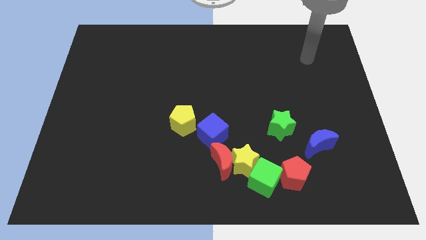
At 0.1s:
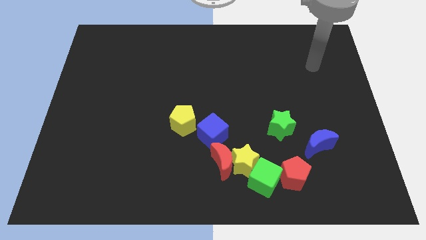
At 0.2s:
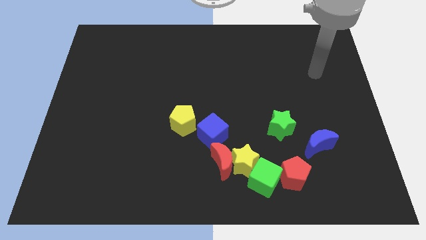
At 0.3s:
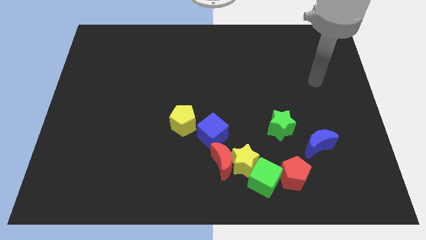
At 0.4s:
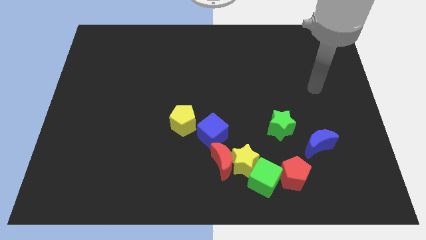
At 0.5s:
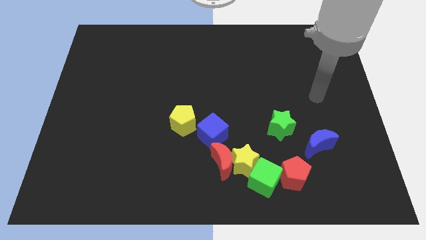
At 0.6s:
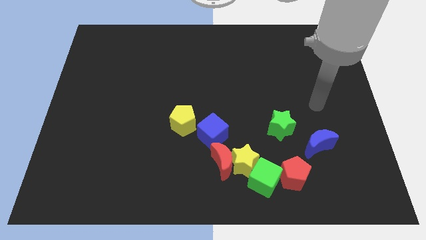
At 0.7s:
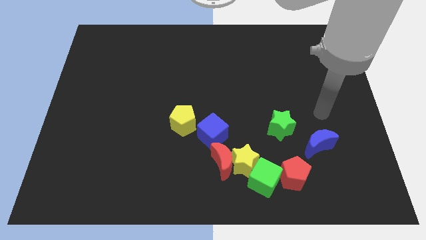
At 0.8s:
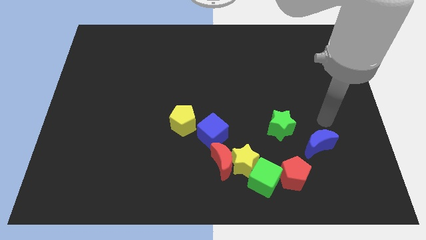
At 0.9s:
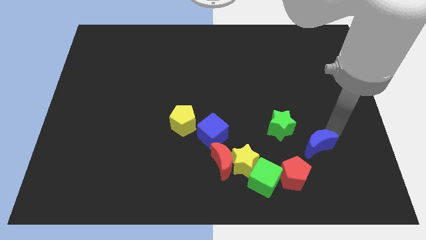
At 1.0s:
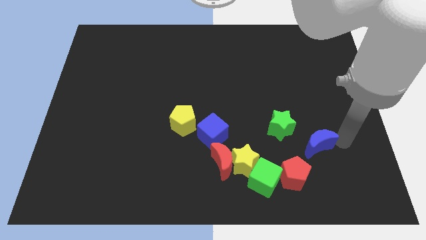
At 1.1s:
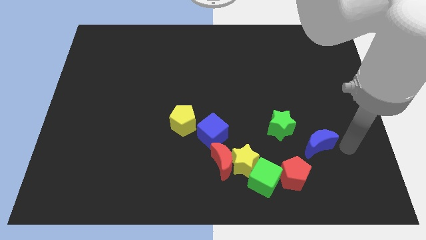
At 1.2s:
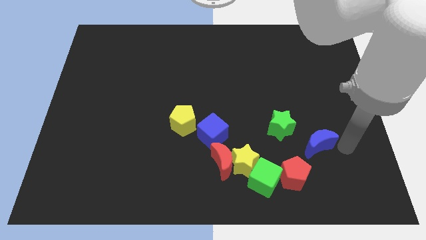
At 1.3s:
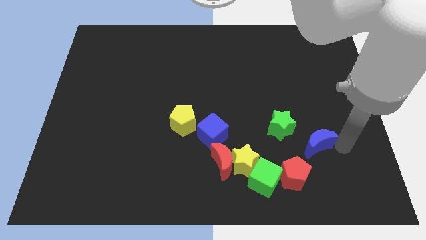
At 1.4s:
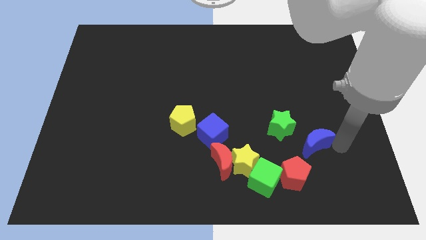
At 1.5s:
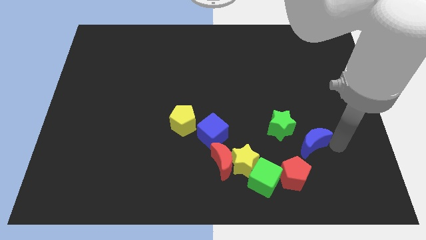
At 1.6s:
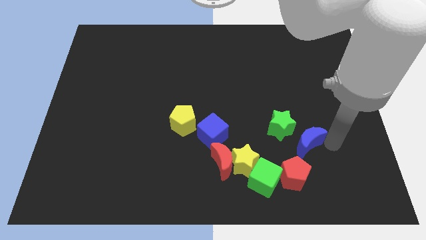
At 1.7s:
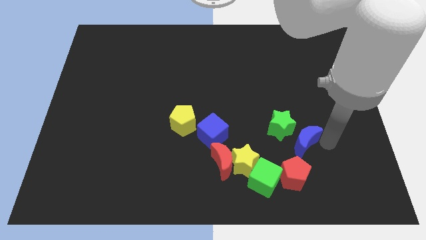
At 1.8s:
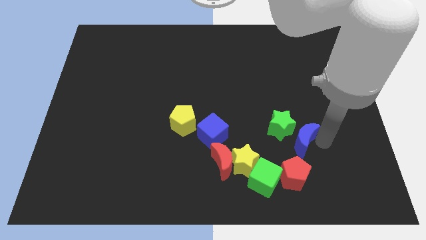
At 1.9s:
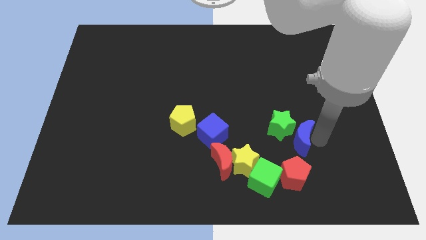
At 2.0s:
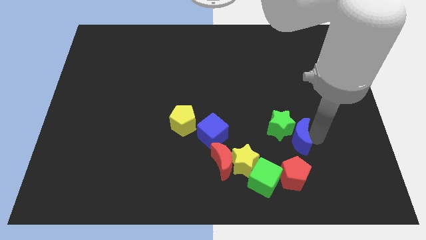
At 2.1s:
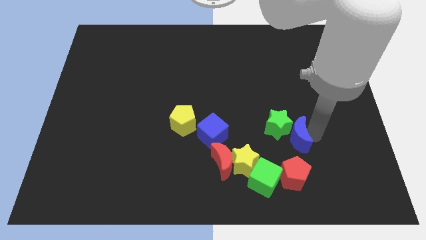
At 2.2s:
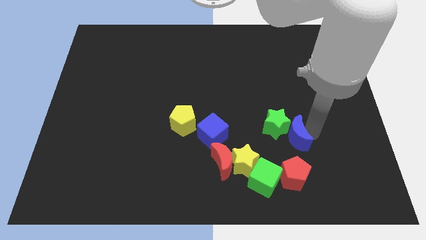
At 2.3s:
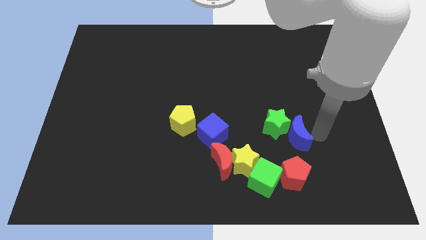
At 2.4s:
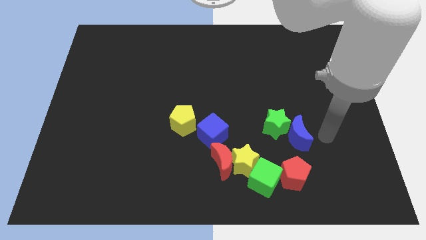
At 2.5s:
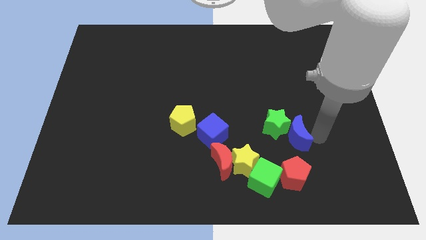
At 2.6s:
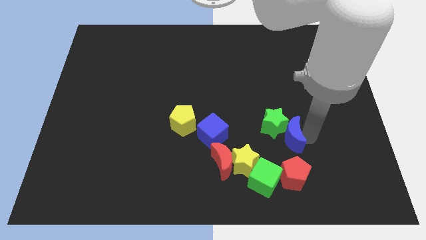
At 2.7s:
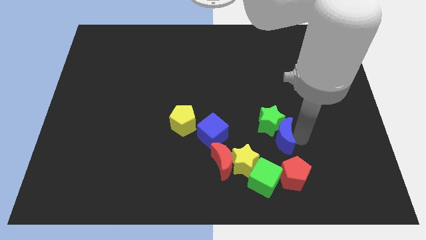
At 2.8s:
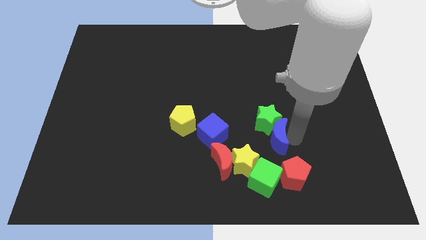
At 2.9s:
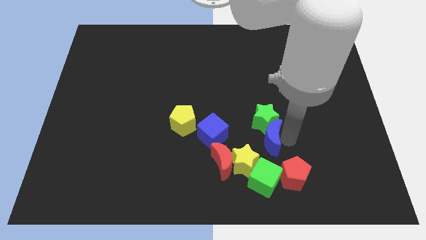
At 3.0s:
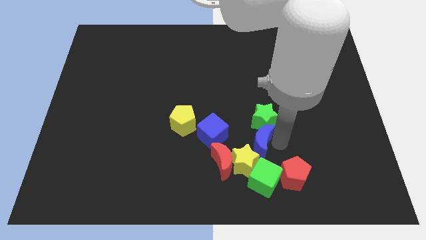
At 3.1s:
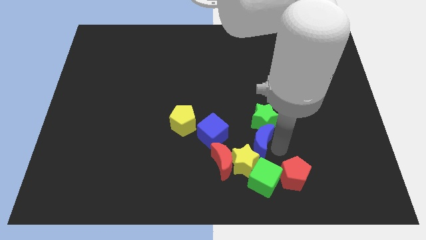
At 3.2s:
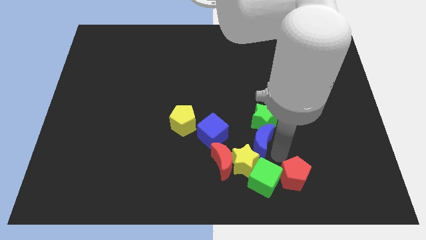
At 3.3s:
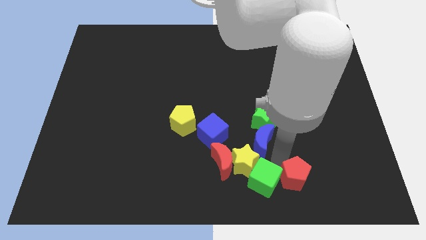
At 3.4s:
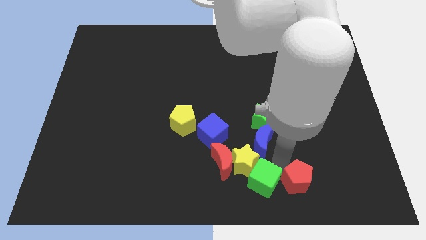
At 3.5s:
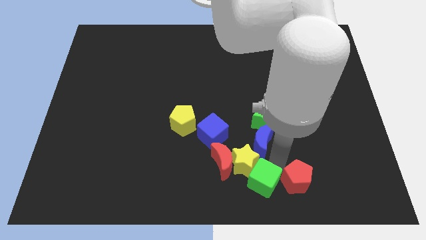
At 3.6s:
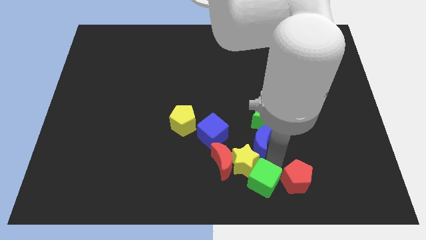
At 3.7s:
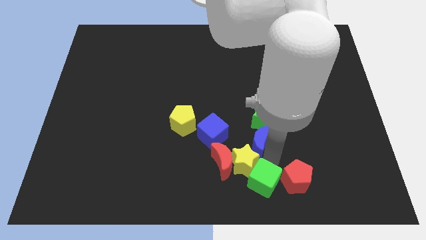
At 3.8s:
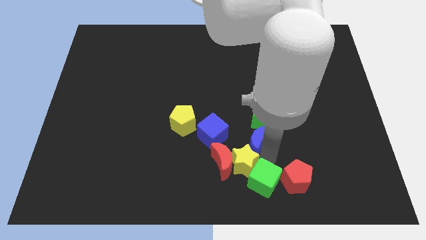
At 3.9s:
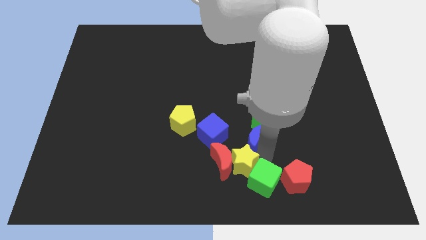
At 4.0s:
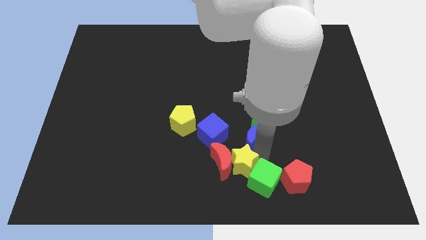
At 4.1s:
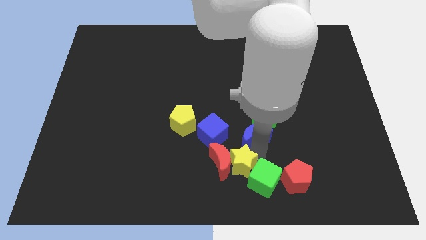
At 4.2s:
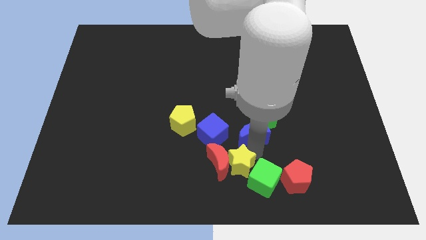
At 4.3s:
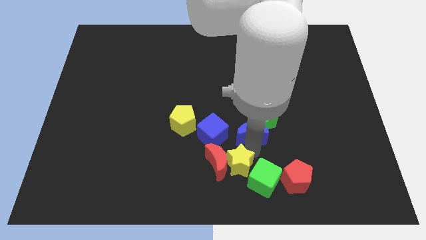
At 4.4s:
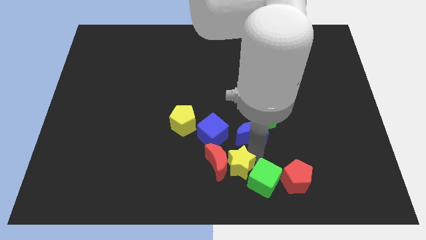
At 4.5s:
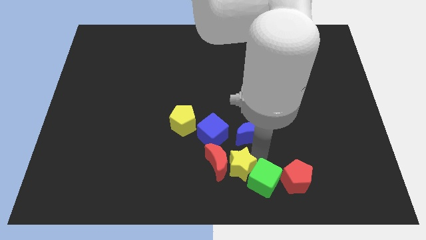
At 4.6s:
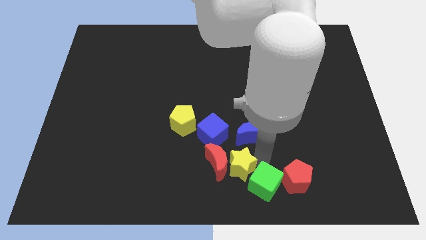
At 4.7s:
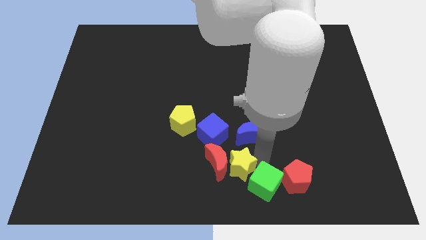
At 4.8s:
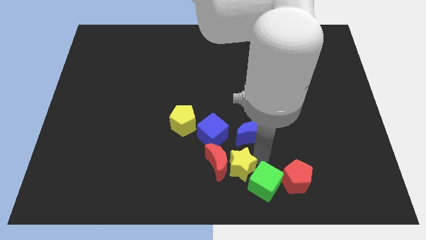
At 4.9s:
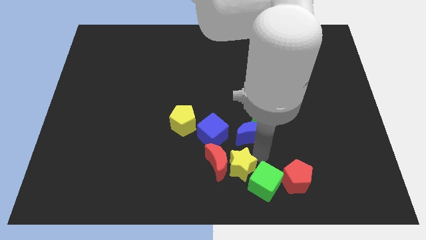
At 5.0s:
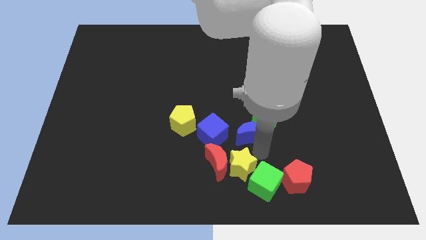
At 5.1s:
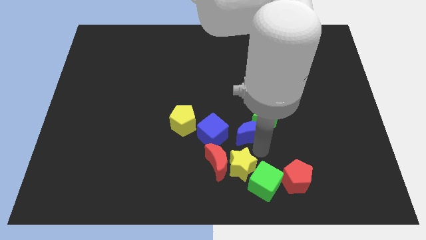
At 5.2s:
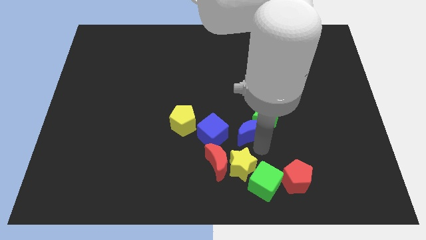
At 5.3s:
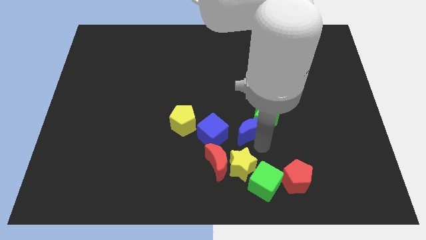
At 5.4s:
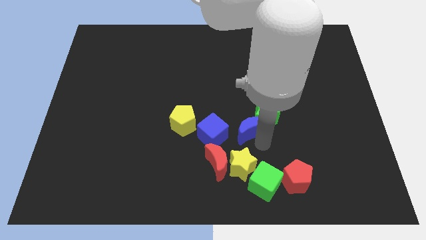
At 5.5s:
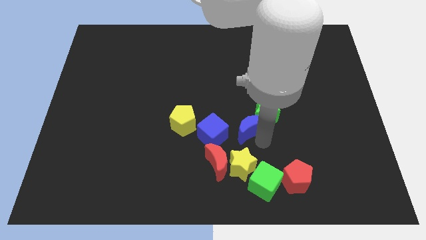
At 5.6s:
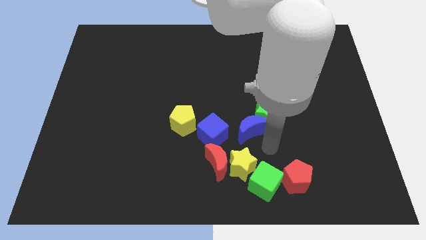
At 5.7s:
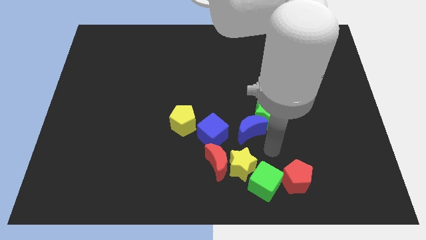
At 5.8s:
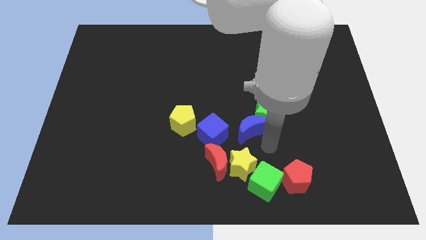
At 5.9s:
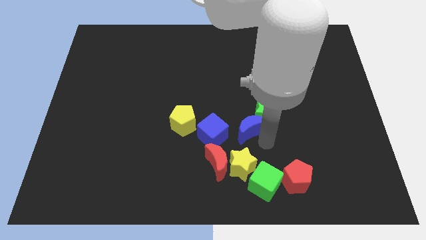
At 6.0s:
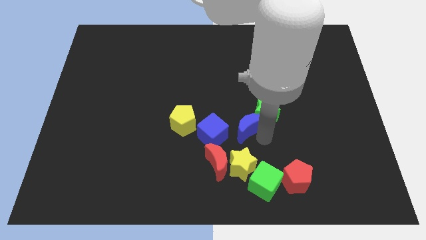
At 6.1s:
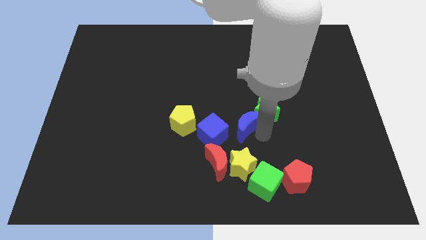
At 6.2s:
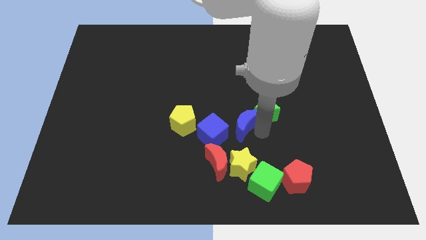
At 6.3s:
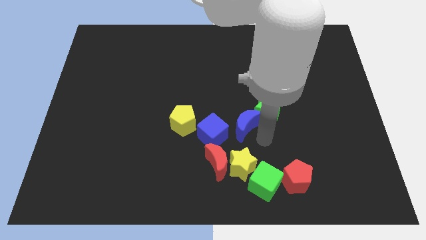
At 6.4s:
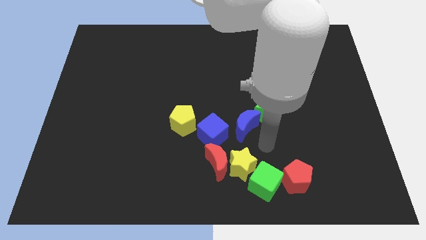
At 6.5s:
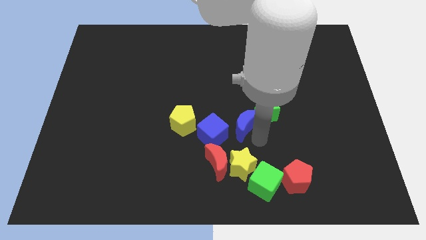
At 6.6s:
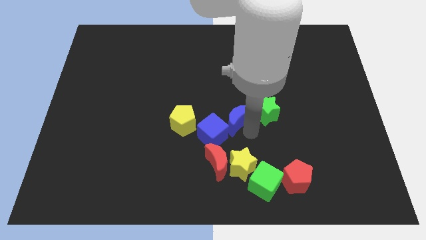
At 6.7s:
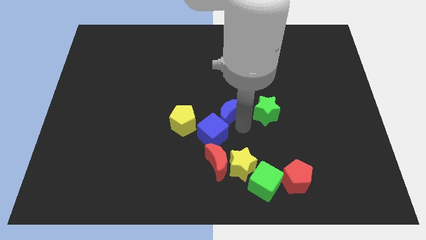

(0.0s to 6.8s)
put the blue moon to the top of the blue cube
